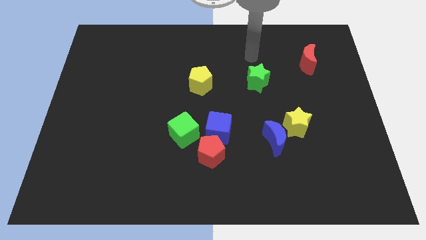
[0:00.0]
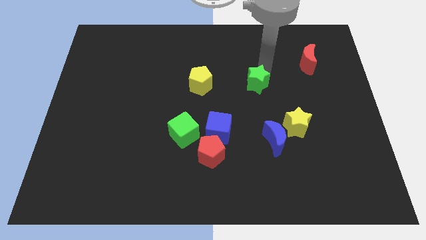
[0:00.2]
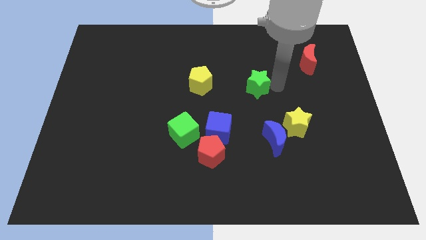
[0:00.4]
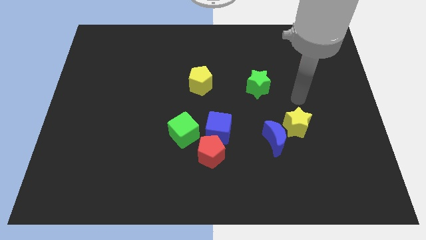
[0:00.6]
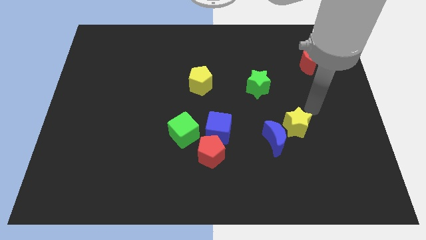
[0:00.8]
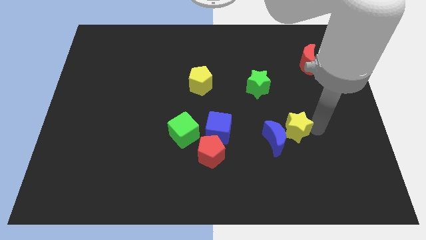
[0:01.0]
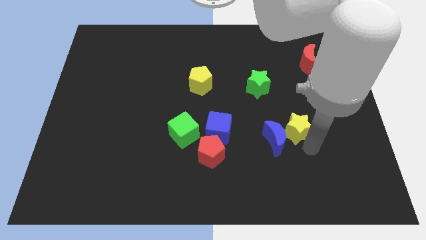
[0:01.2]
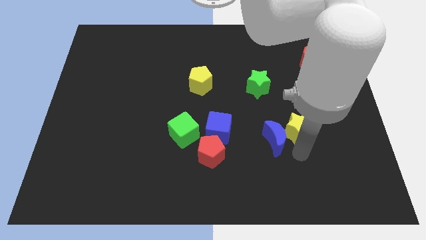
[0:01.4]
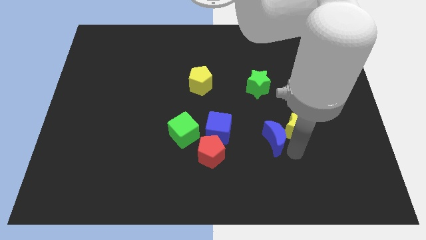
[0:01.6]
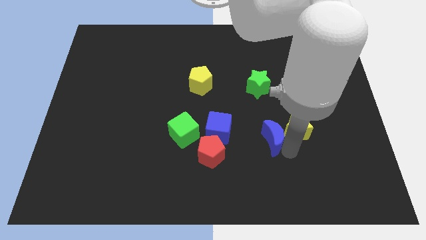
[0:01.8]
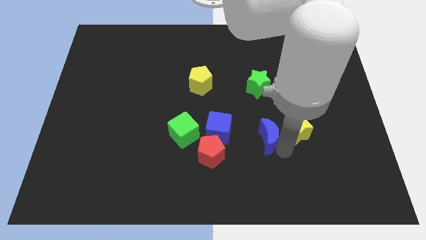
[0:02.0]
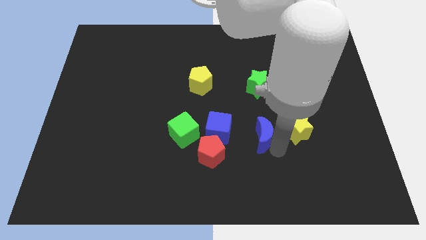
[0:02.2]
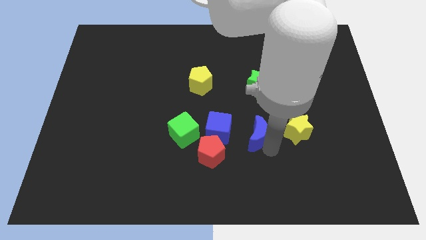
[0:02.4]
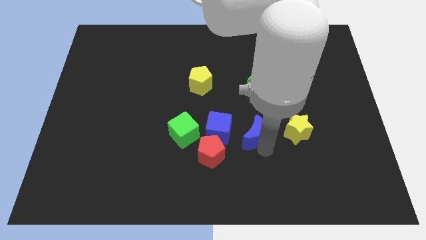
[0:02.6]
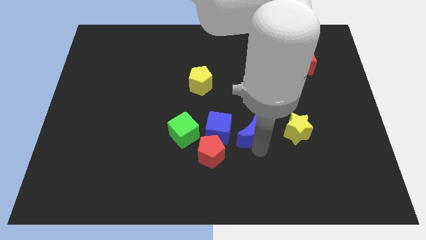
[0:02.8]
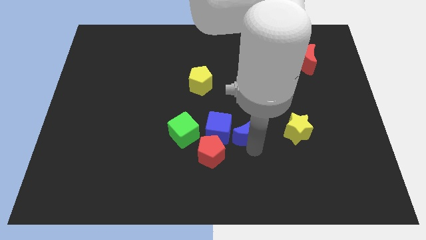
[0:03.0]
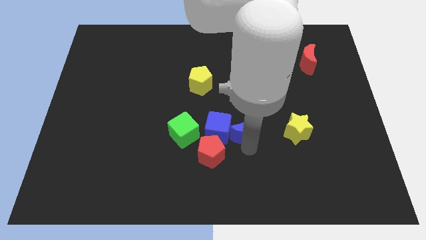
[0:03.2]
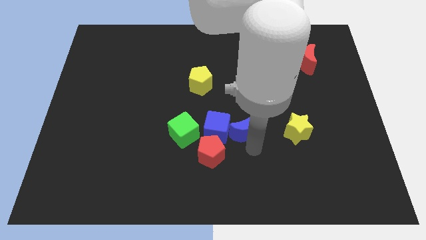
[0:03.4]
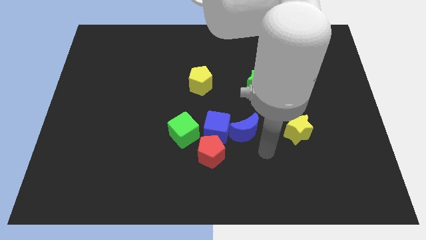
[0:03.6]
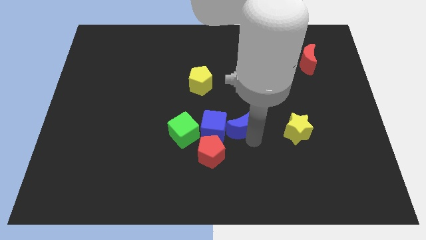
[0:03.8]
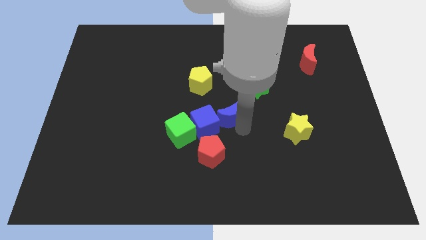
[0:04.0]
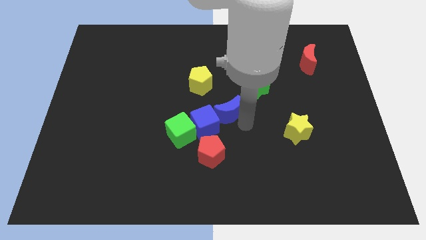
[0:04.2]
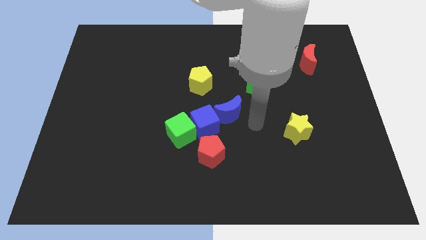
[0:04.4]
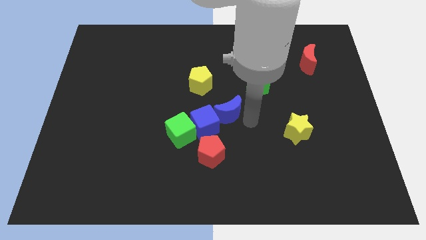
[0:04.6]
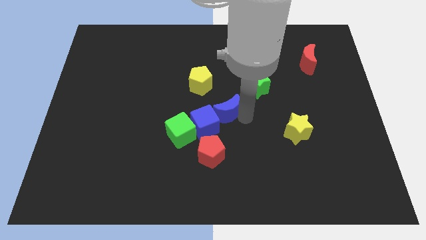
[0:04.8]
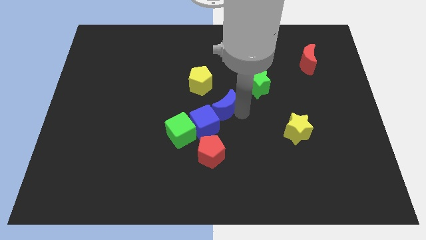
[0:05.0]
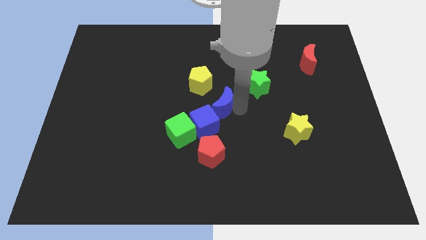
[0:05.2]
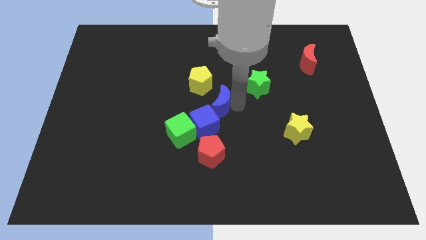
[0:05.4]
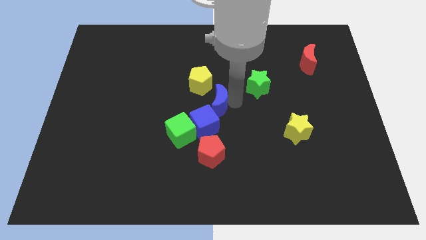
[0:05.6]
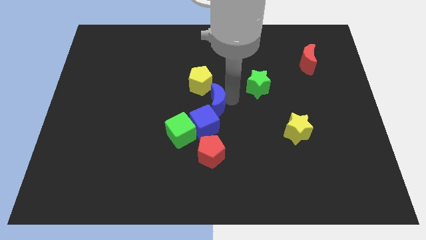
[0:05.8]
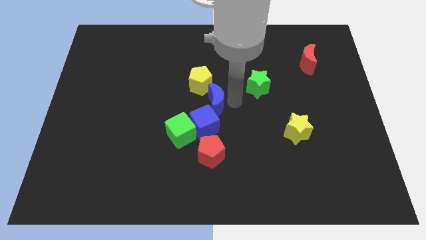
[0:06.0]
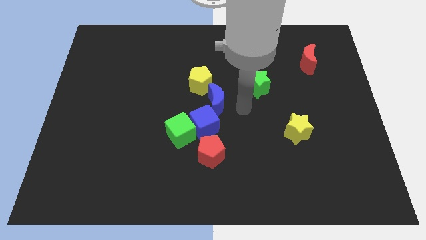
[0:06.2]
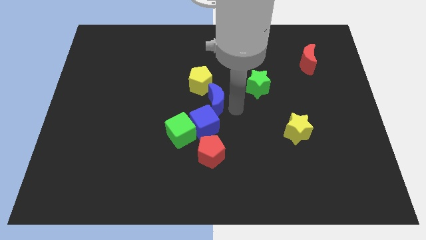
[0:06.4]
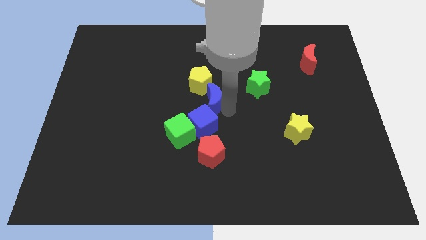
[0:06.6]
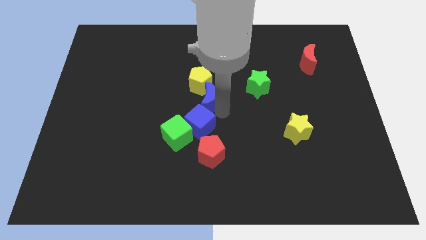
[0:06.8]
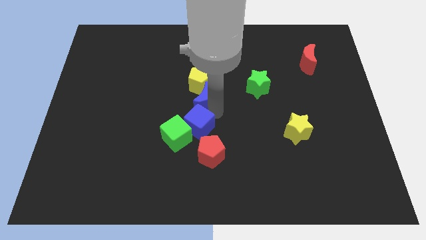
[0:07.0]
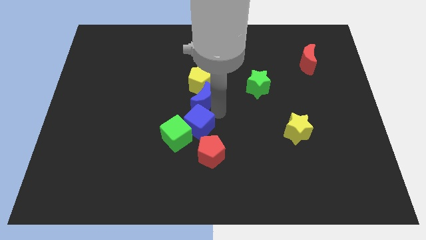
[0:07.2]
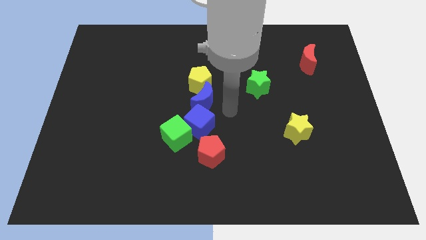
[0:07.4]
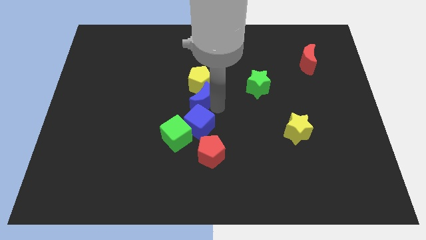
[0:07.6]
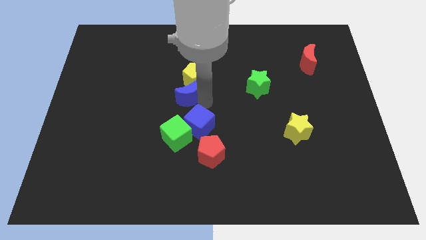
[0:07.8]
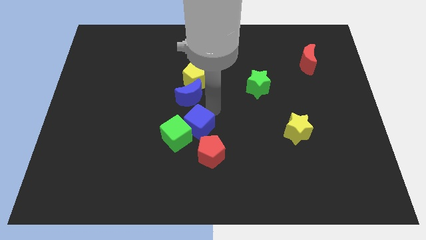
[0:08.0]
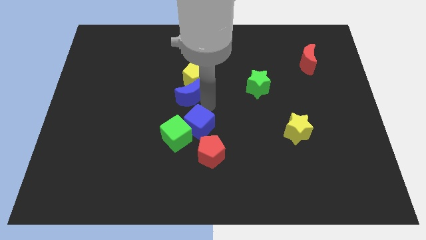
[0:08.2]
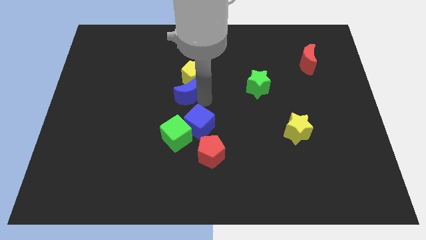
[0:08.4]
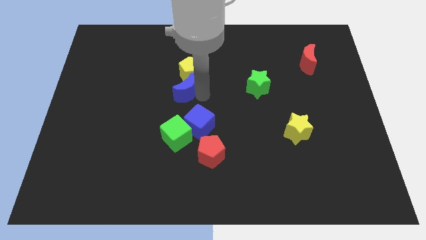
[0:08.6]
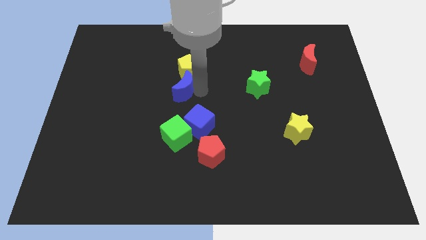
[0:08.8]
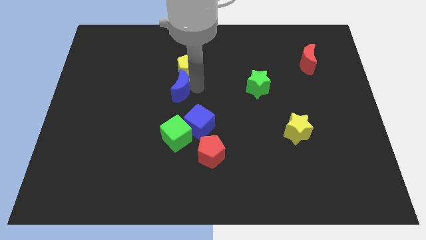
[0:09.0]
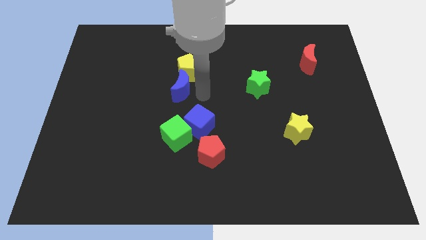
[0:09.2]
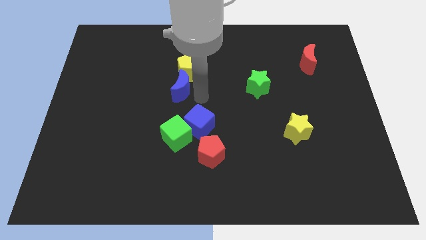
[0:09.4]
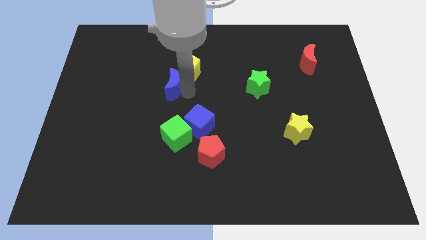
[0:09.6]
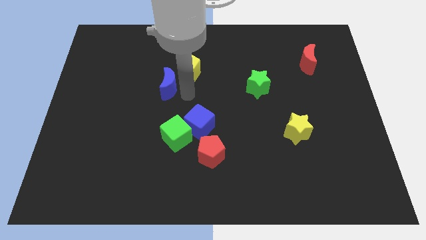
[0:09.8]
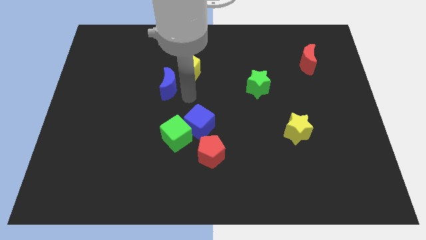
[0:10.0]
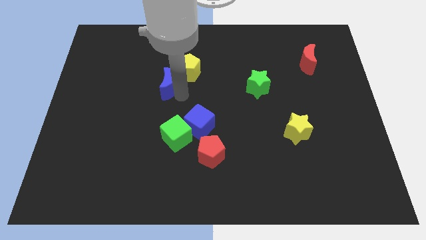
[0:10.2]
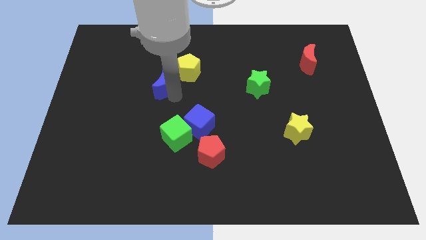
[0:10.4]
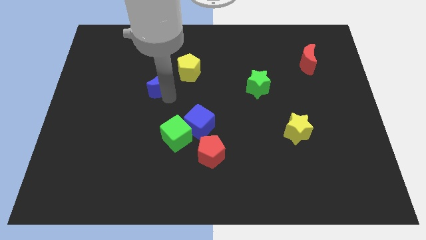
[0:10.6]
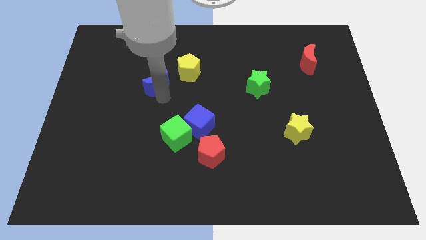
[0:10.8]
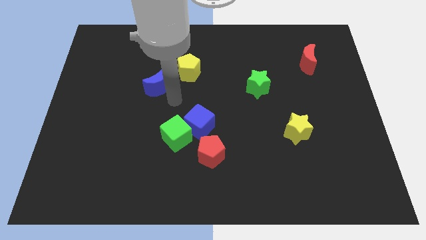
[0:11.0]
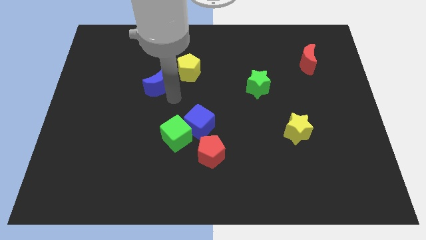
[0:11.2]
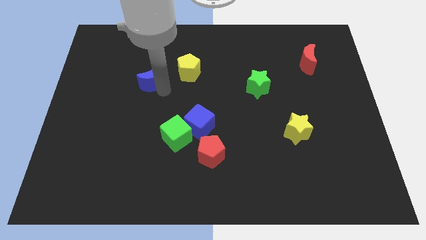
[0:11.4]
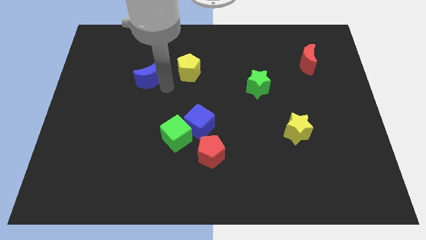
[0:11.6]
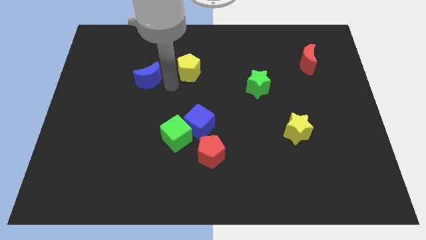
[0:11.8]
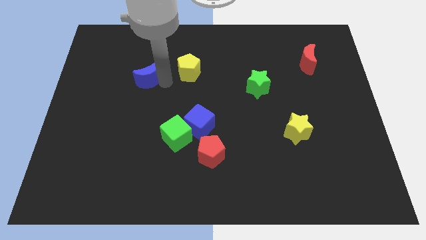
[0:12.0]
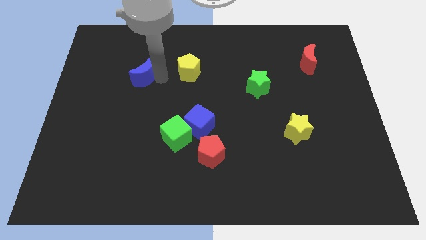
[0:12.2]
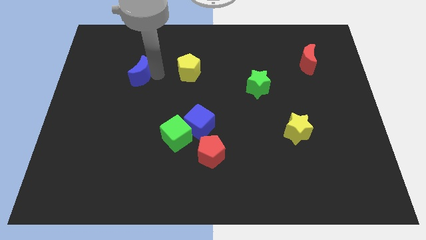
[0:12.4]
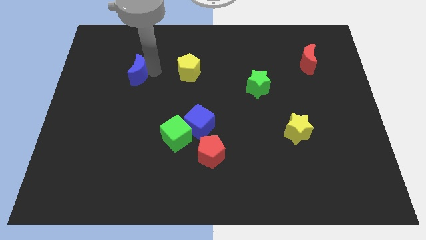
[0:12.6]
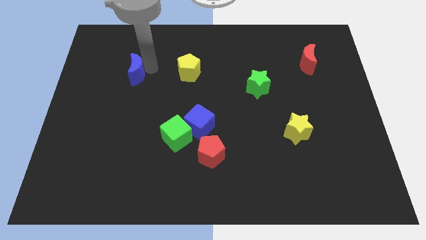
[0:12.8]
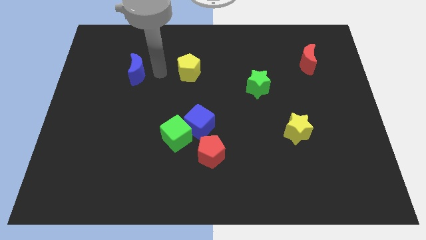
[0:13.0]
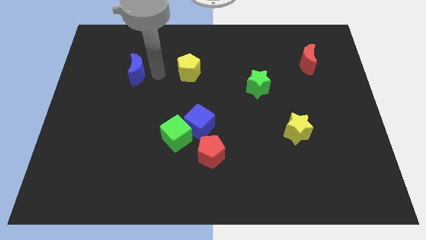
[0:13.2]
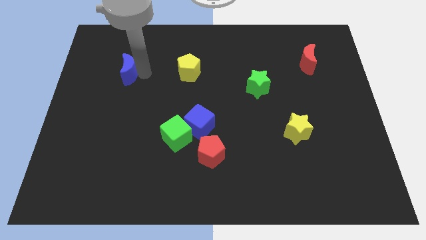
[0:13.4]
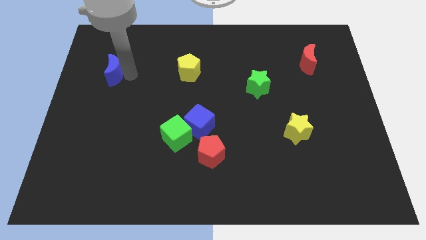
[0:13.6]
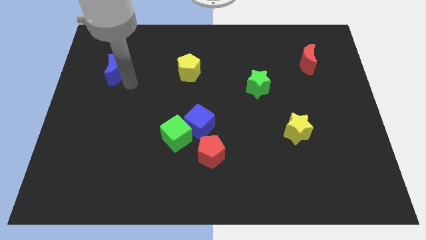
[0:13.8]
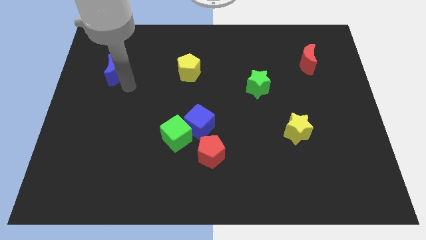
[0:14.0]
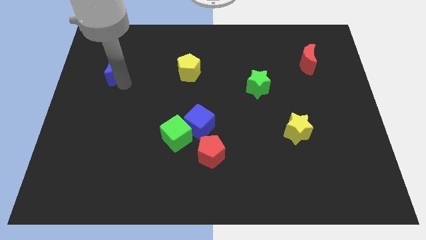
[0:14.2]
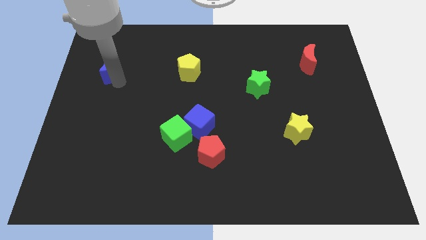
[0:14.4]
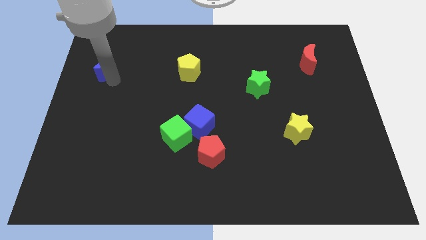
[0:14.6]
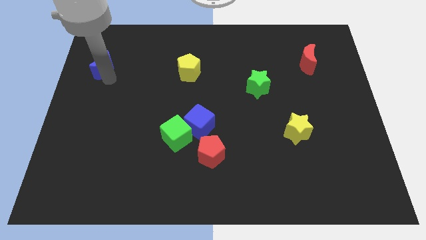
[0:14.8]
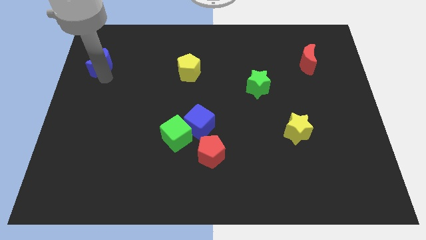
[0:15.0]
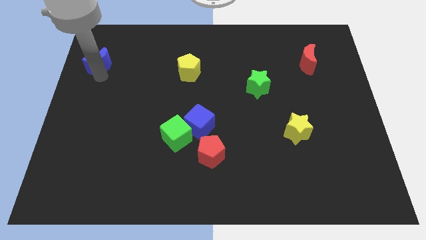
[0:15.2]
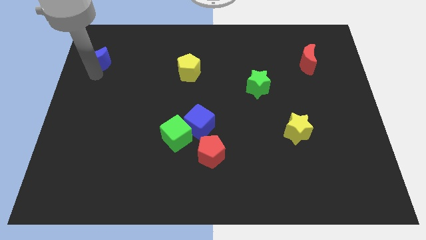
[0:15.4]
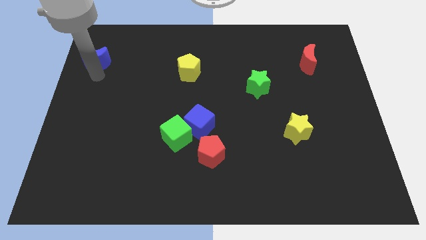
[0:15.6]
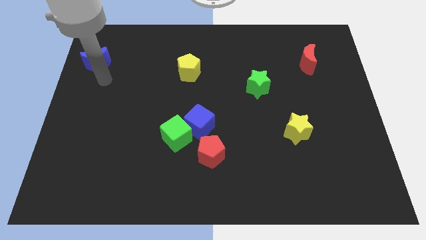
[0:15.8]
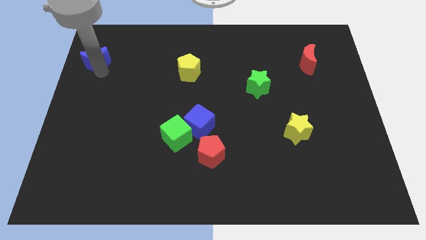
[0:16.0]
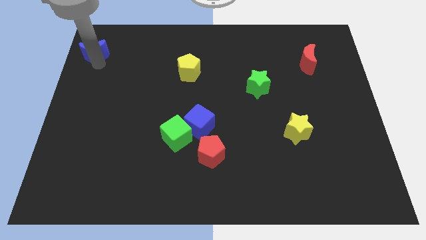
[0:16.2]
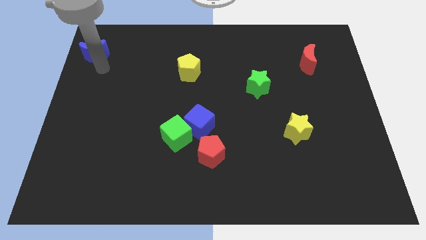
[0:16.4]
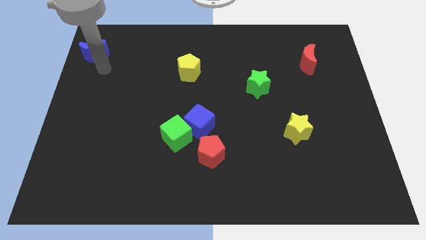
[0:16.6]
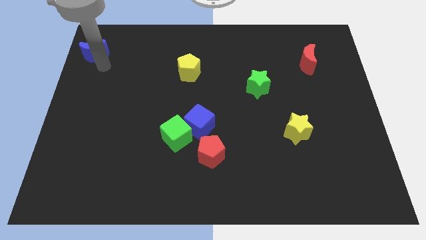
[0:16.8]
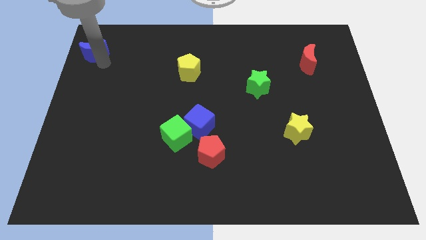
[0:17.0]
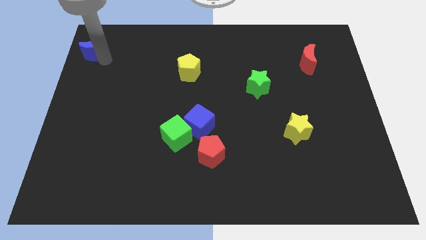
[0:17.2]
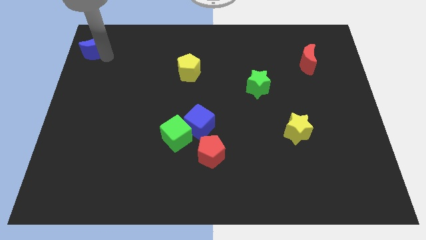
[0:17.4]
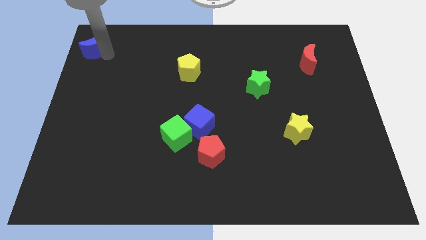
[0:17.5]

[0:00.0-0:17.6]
move the blue moon to the top left
